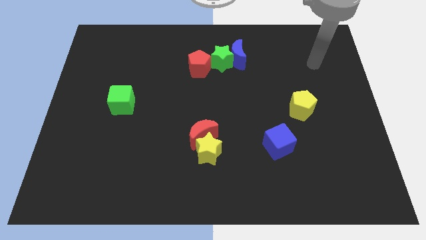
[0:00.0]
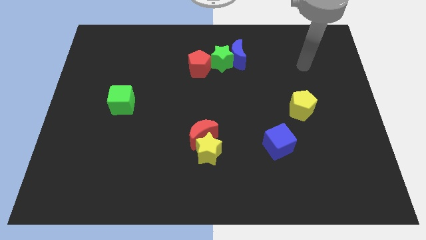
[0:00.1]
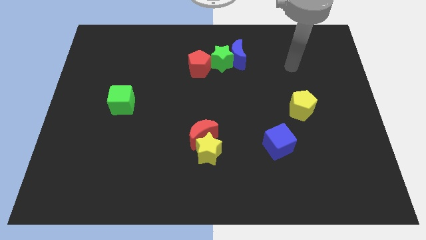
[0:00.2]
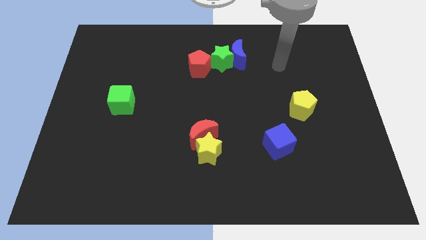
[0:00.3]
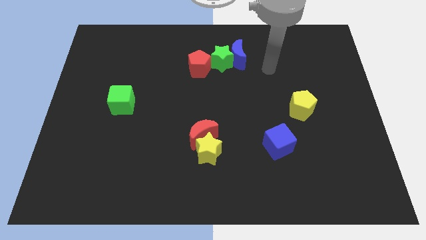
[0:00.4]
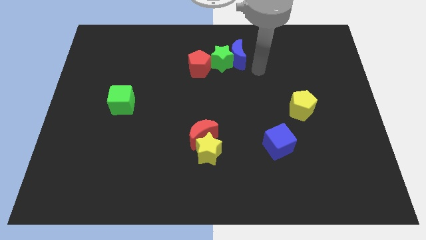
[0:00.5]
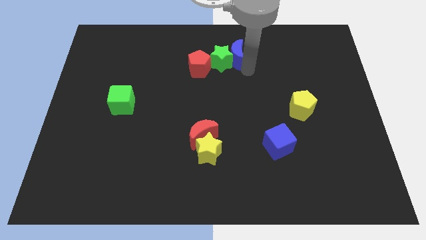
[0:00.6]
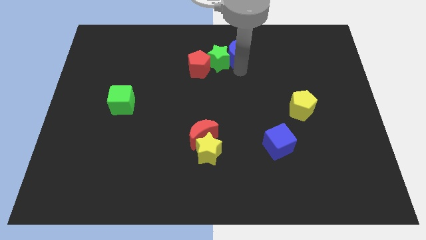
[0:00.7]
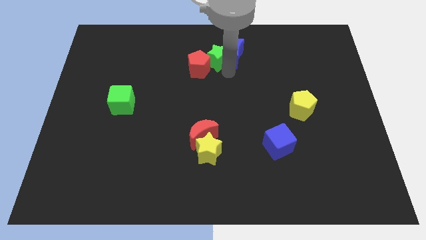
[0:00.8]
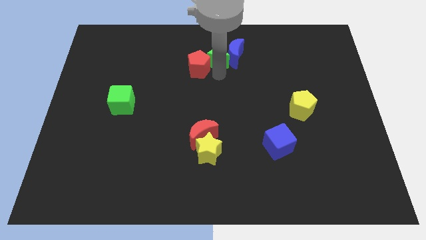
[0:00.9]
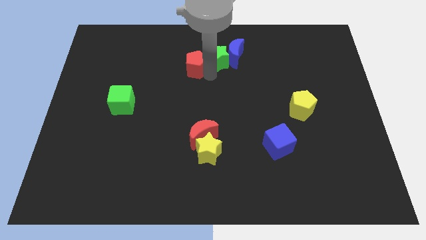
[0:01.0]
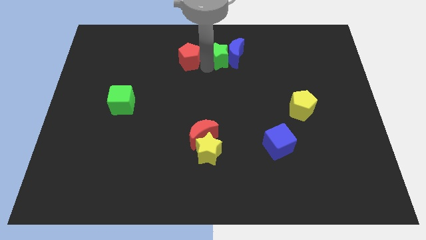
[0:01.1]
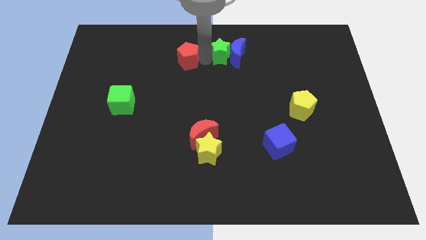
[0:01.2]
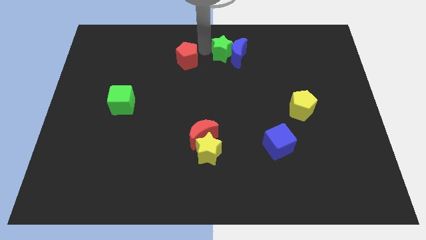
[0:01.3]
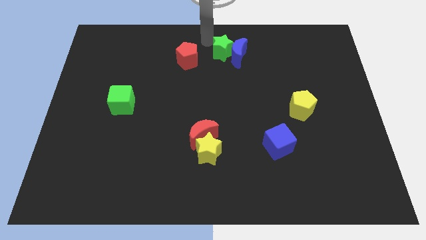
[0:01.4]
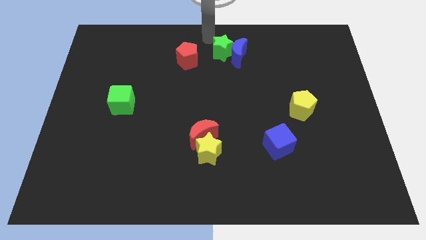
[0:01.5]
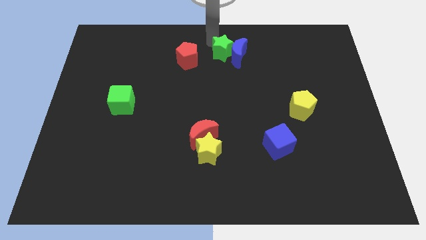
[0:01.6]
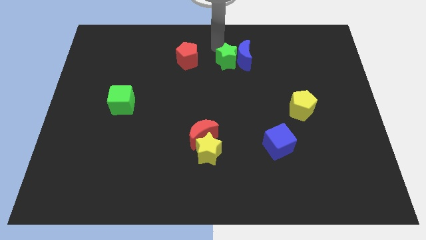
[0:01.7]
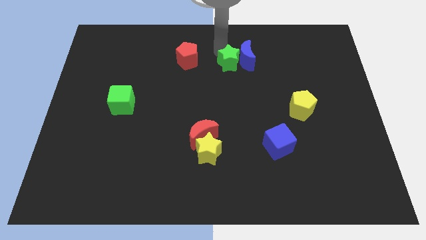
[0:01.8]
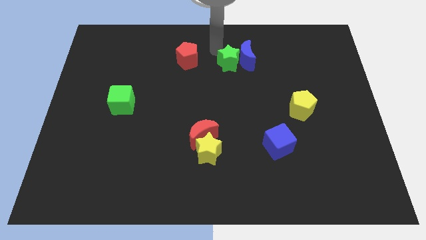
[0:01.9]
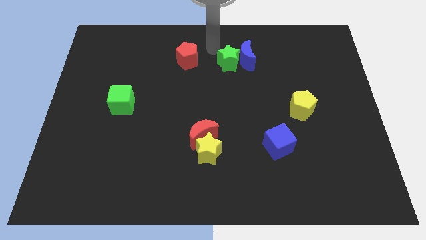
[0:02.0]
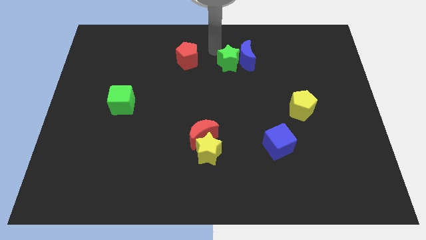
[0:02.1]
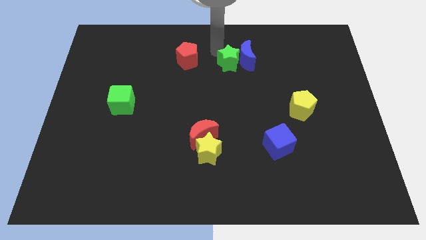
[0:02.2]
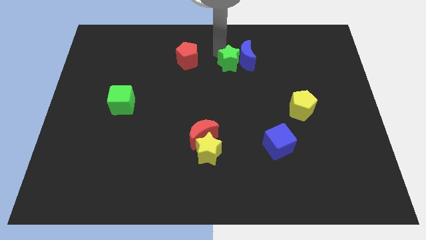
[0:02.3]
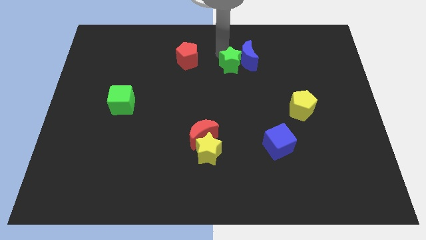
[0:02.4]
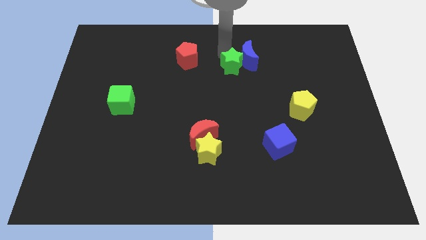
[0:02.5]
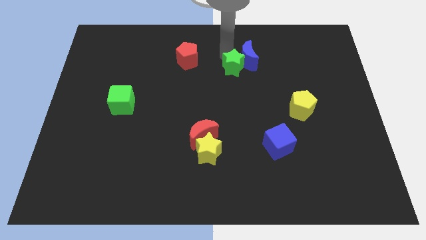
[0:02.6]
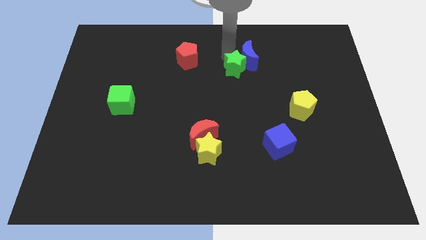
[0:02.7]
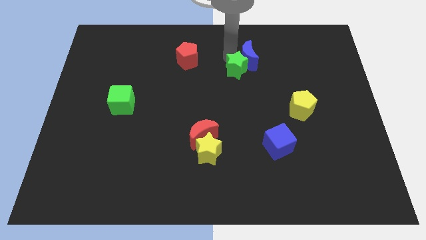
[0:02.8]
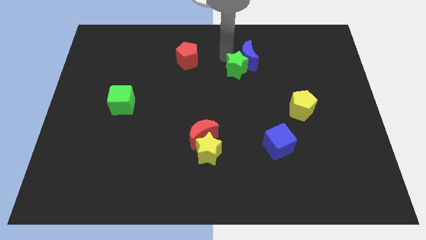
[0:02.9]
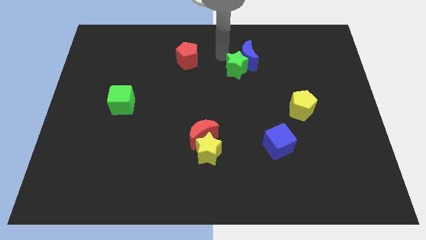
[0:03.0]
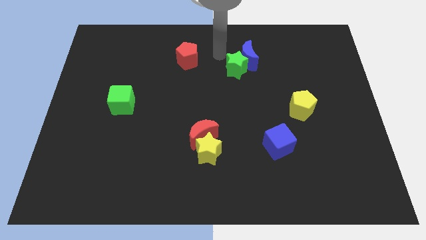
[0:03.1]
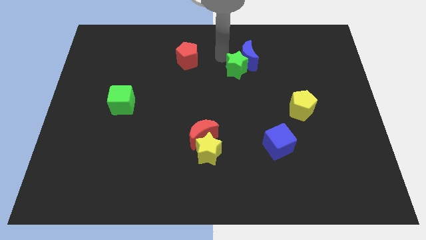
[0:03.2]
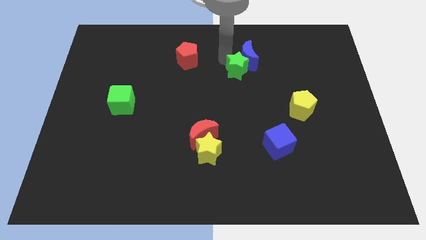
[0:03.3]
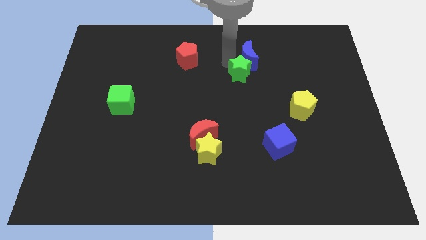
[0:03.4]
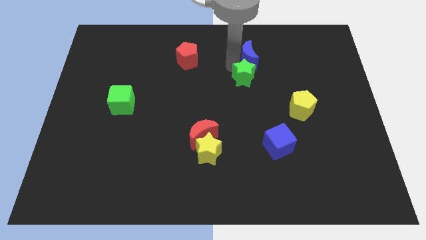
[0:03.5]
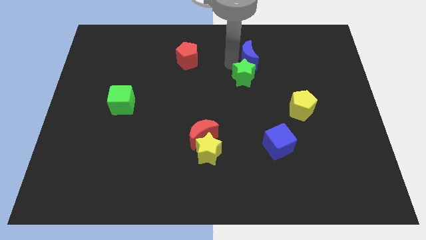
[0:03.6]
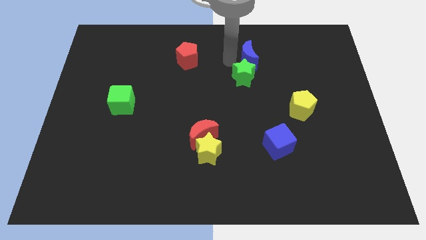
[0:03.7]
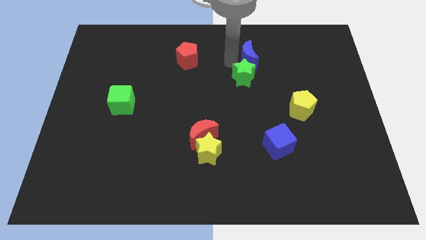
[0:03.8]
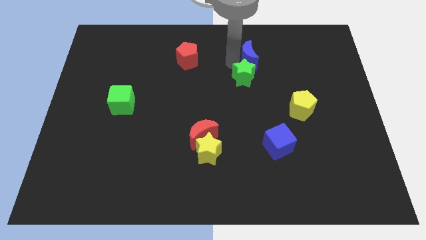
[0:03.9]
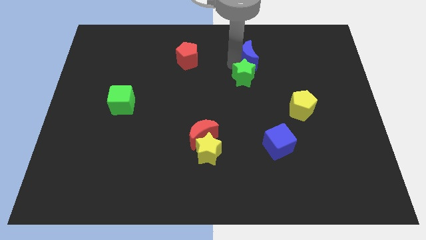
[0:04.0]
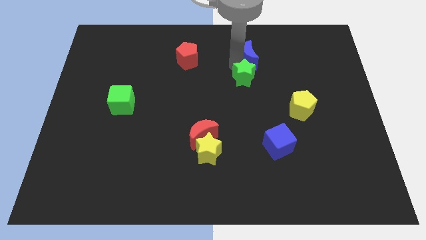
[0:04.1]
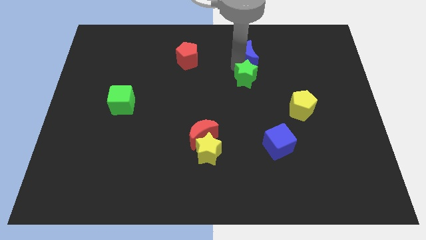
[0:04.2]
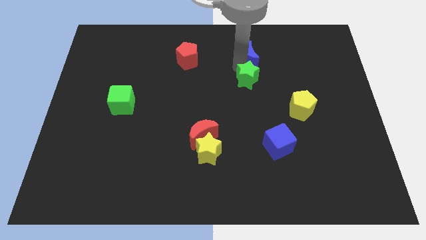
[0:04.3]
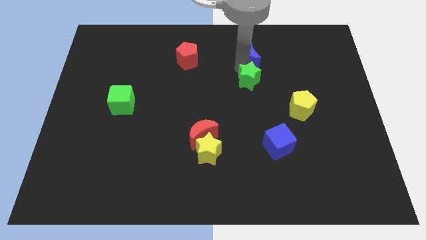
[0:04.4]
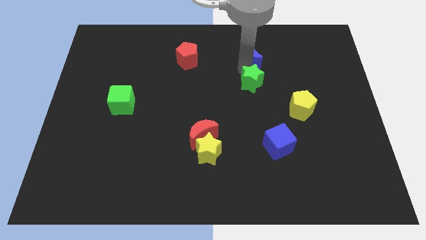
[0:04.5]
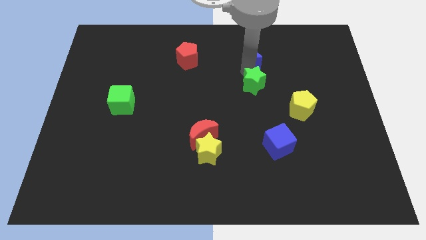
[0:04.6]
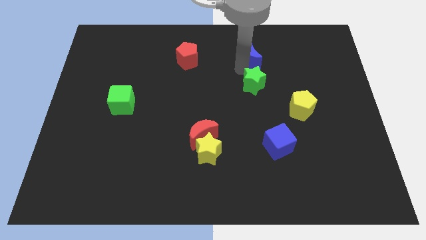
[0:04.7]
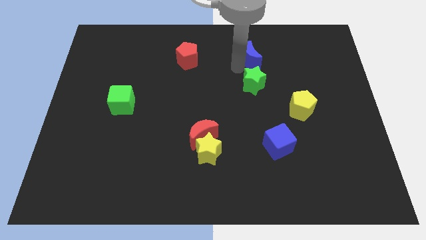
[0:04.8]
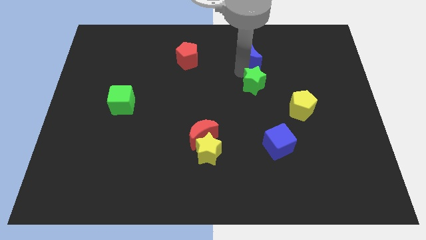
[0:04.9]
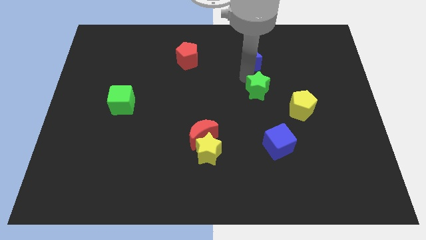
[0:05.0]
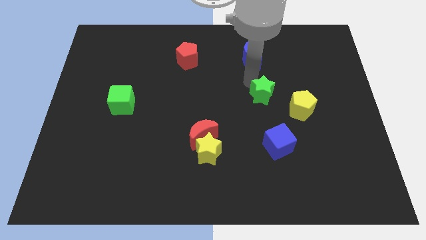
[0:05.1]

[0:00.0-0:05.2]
move the green star to the top side of the blue cube

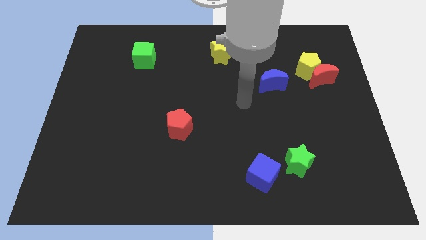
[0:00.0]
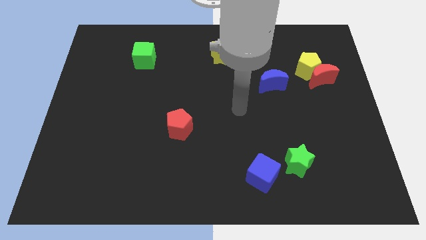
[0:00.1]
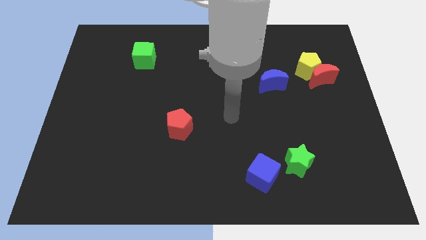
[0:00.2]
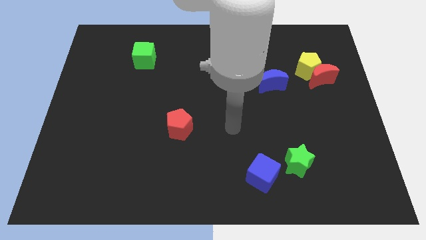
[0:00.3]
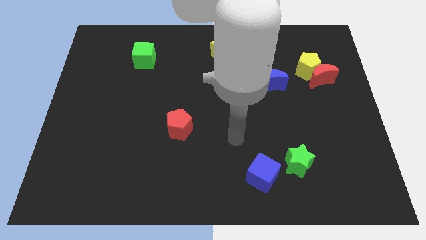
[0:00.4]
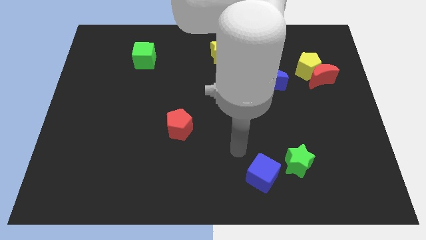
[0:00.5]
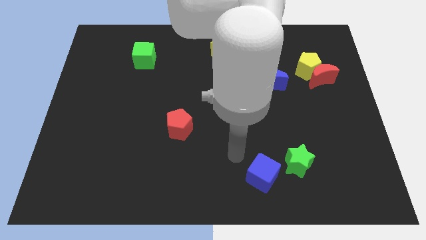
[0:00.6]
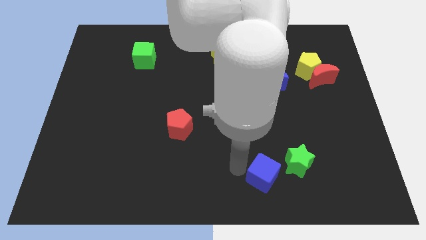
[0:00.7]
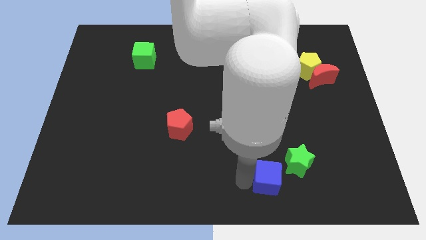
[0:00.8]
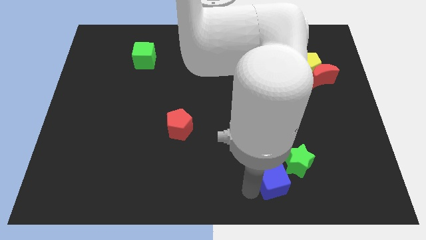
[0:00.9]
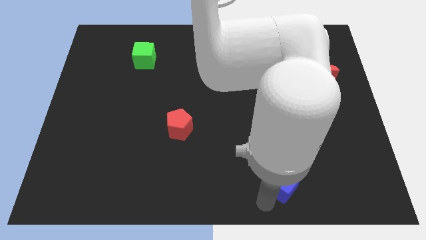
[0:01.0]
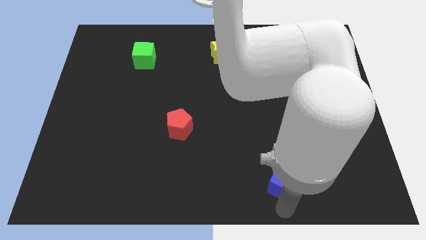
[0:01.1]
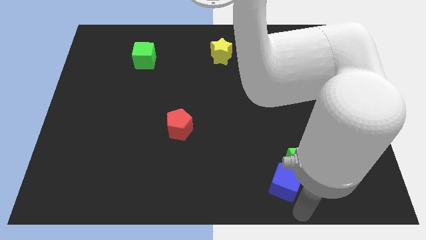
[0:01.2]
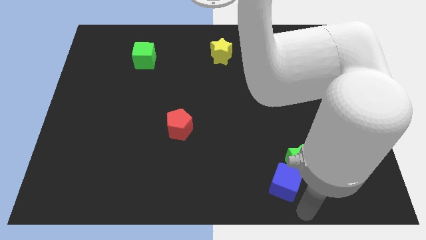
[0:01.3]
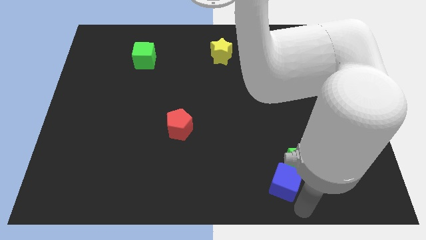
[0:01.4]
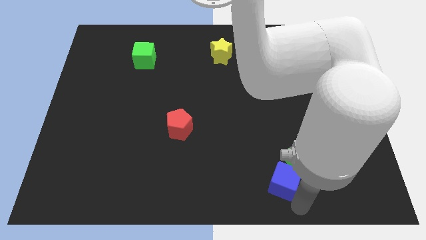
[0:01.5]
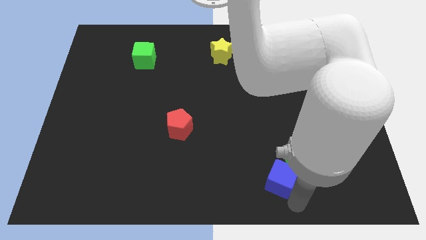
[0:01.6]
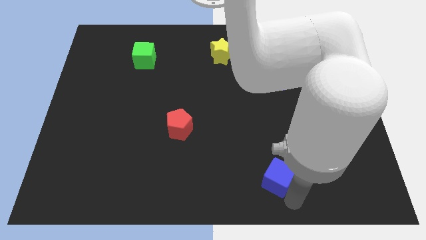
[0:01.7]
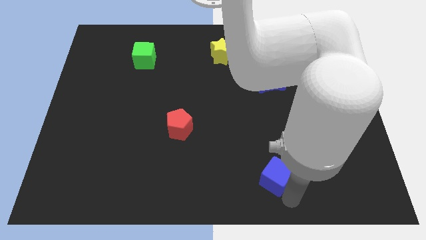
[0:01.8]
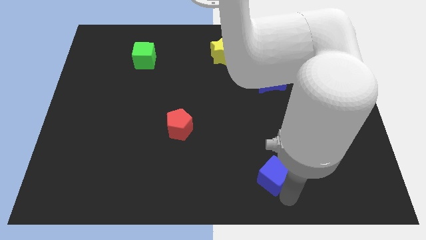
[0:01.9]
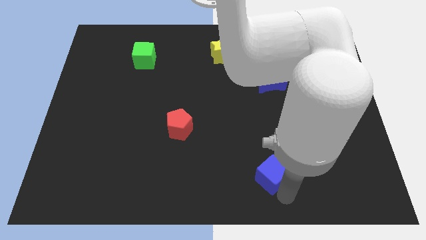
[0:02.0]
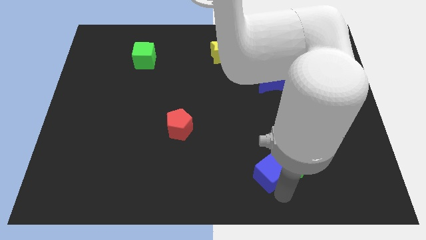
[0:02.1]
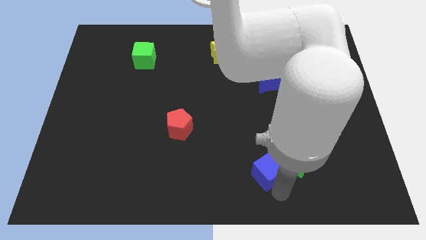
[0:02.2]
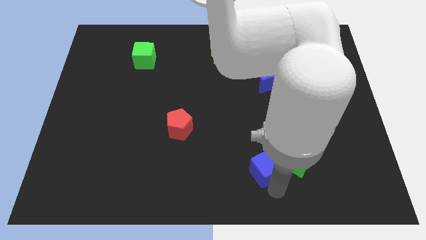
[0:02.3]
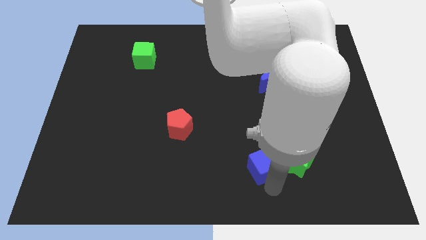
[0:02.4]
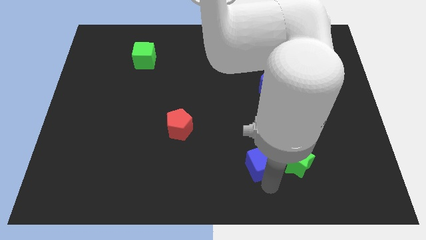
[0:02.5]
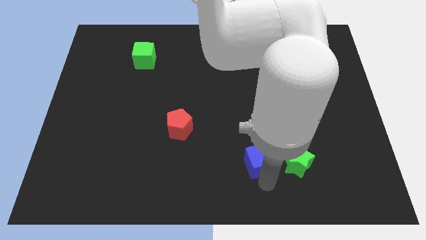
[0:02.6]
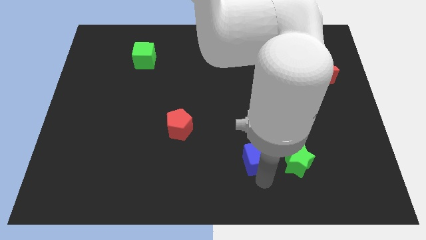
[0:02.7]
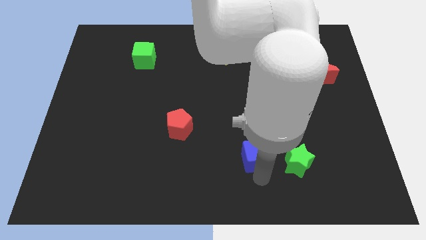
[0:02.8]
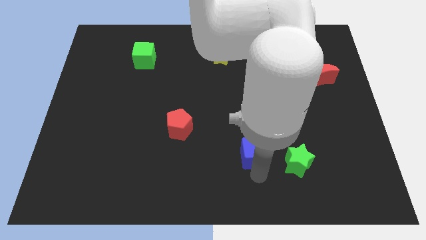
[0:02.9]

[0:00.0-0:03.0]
slide the blue cube diagonally up and to the left of the green star
